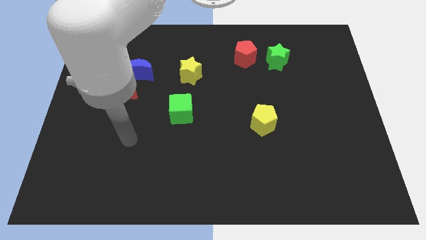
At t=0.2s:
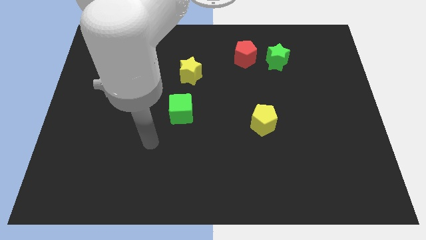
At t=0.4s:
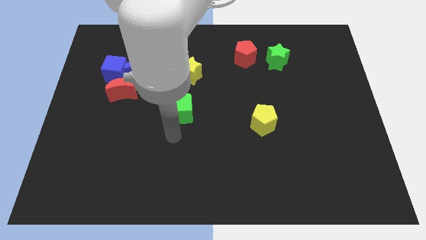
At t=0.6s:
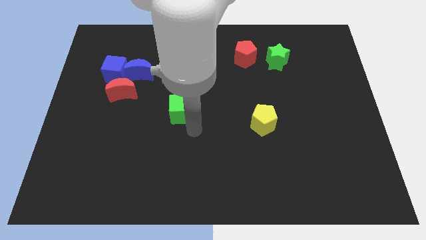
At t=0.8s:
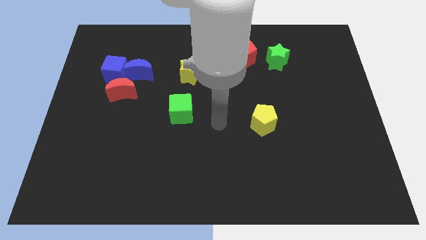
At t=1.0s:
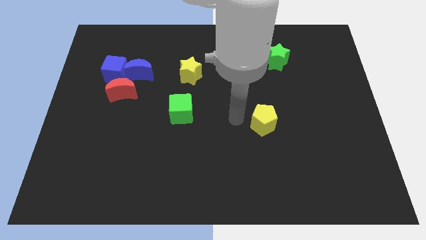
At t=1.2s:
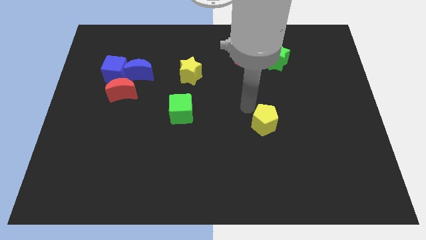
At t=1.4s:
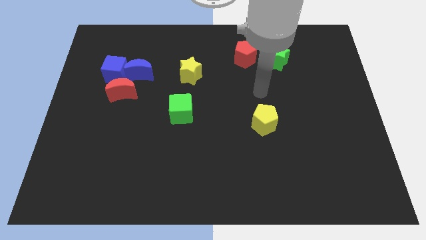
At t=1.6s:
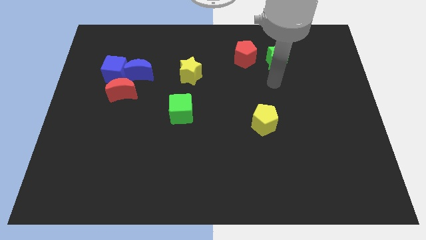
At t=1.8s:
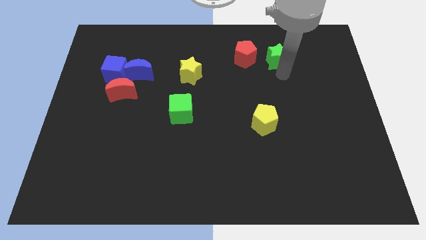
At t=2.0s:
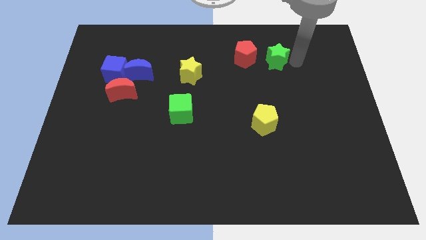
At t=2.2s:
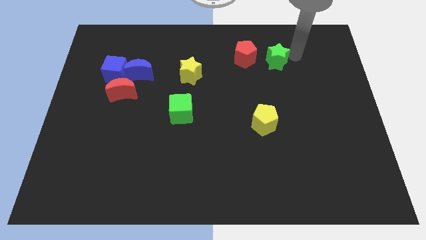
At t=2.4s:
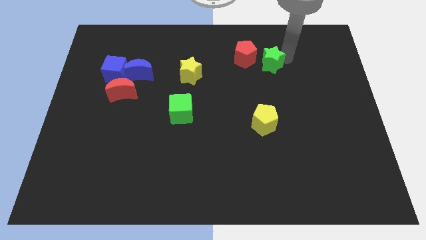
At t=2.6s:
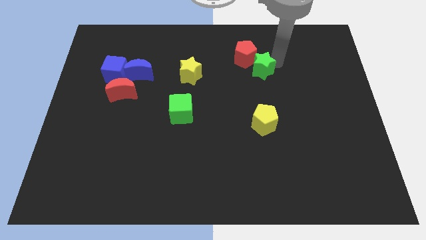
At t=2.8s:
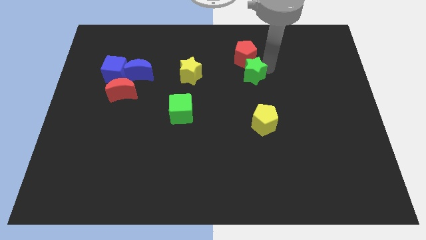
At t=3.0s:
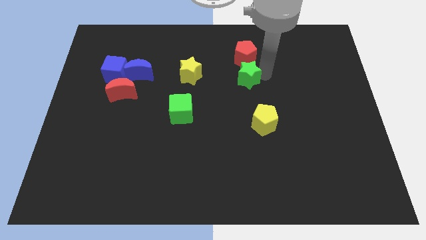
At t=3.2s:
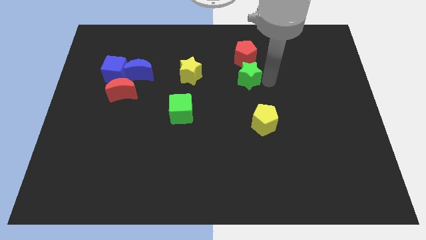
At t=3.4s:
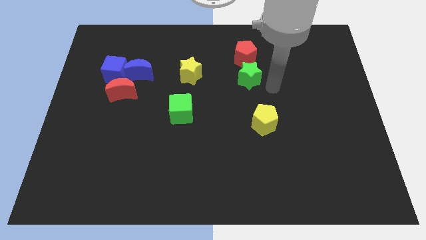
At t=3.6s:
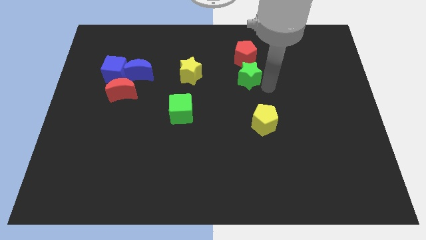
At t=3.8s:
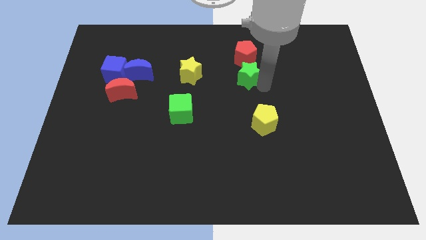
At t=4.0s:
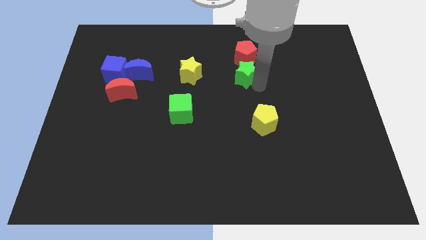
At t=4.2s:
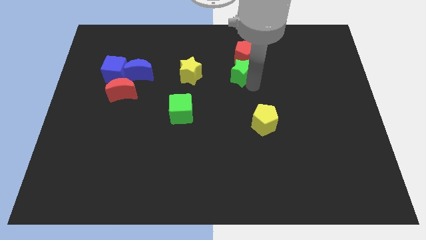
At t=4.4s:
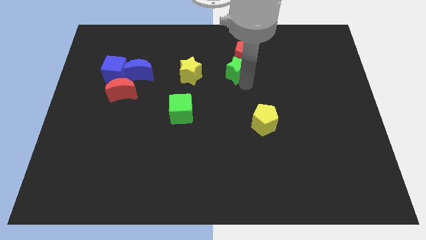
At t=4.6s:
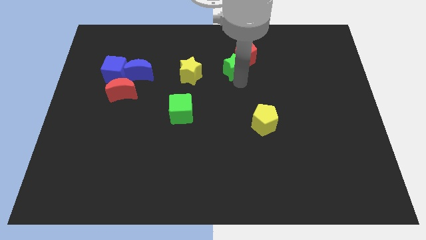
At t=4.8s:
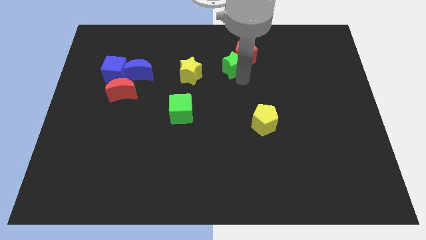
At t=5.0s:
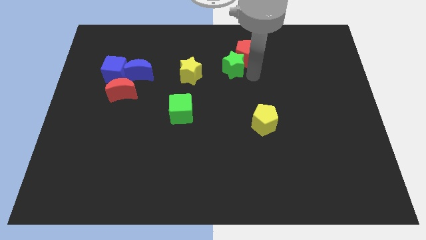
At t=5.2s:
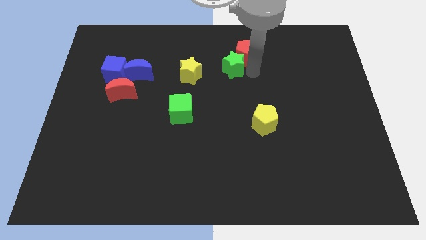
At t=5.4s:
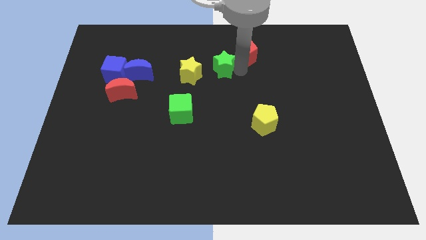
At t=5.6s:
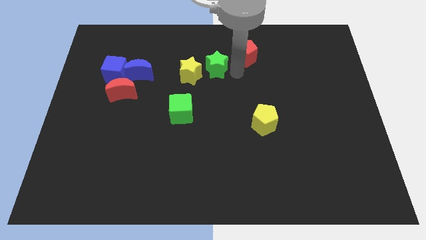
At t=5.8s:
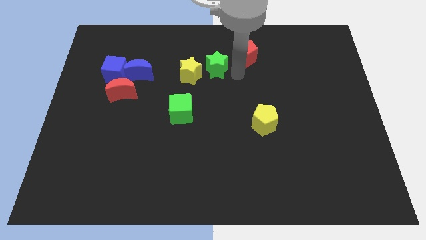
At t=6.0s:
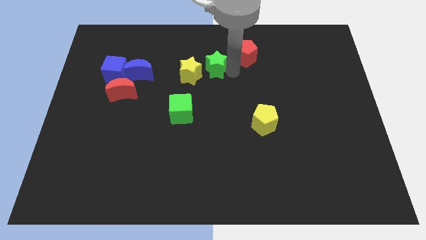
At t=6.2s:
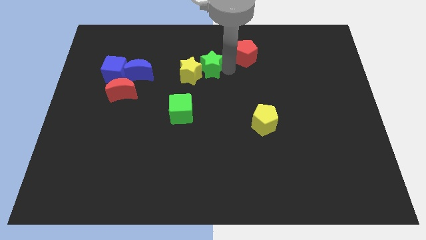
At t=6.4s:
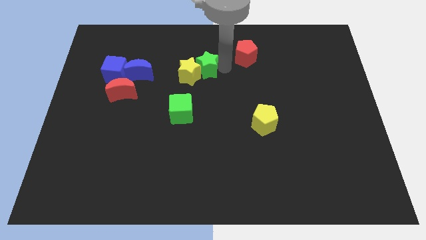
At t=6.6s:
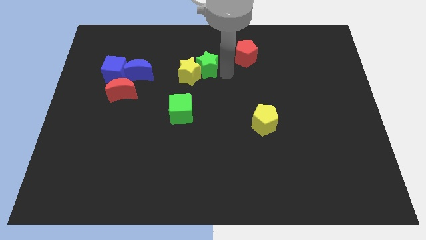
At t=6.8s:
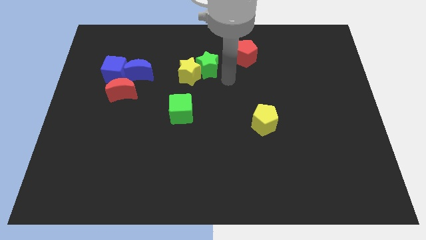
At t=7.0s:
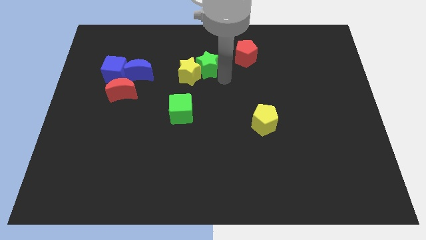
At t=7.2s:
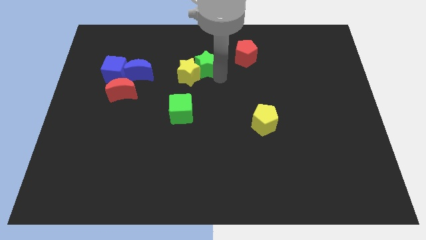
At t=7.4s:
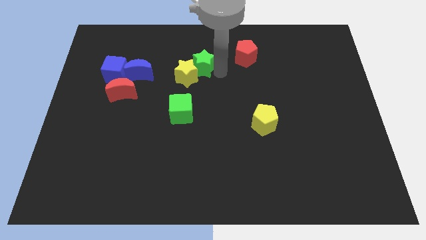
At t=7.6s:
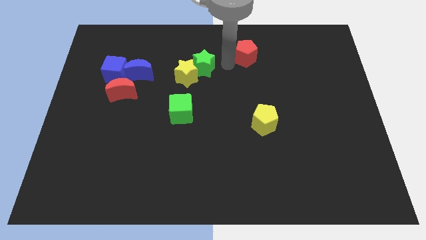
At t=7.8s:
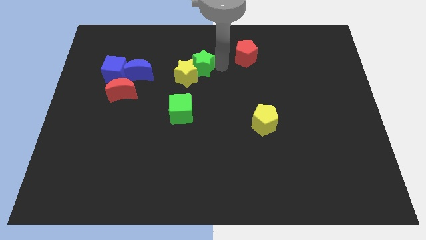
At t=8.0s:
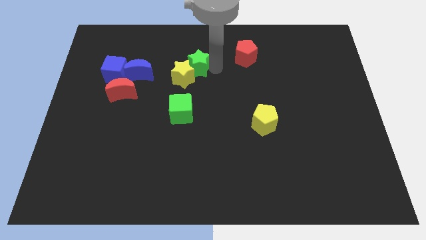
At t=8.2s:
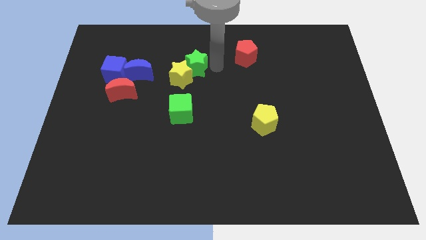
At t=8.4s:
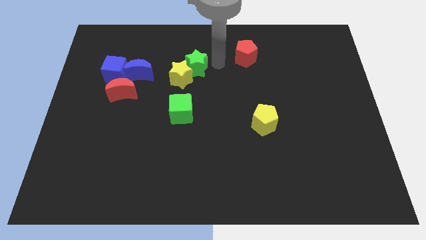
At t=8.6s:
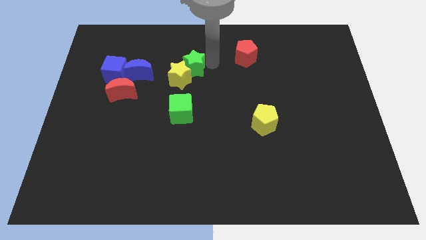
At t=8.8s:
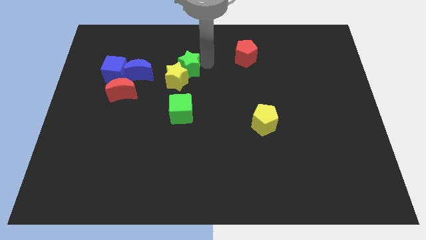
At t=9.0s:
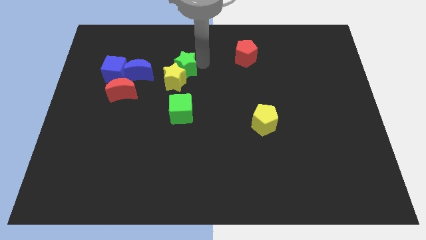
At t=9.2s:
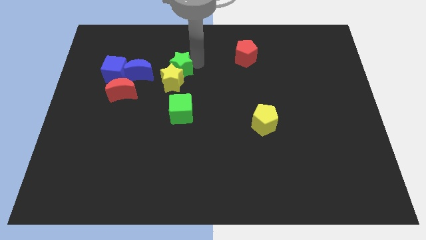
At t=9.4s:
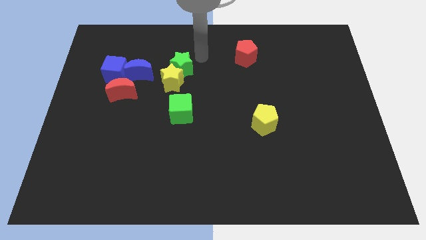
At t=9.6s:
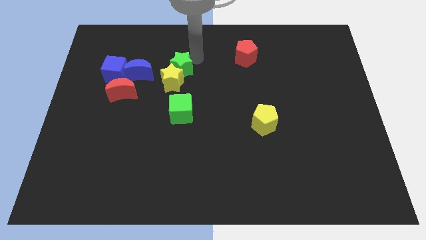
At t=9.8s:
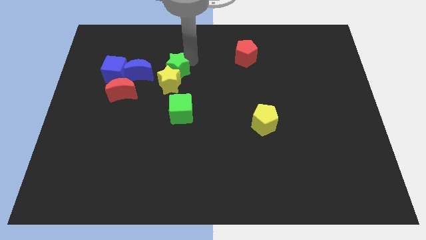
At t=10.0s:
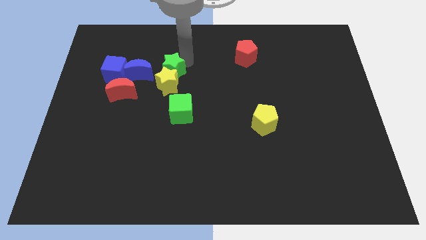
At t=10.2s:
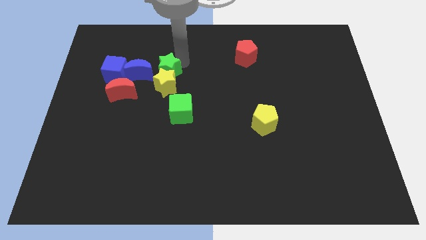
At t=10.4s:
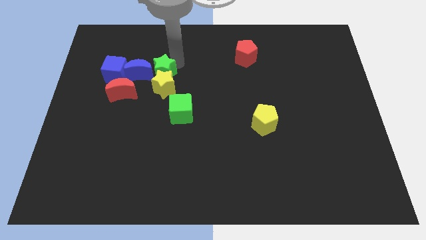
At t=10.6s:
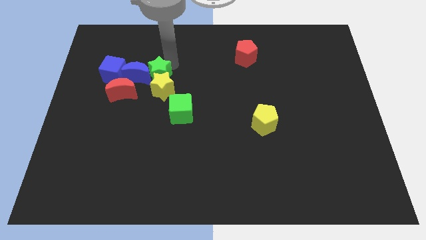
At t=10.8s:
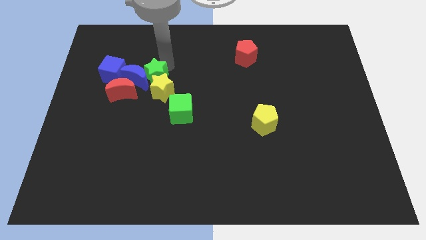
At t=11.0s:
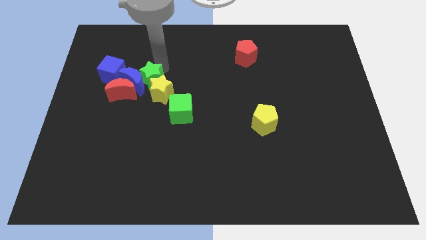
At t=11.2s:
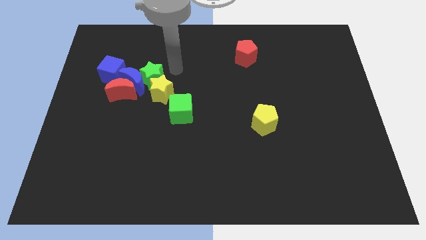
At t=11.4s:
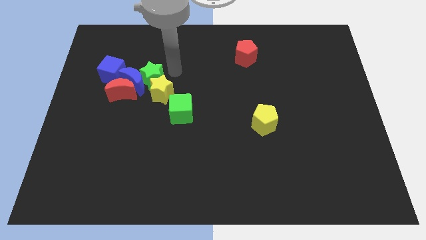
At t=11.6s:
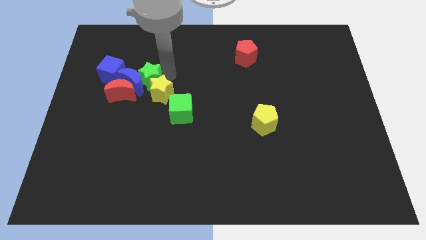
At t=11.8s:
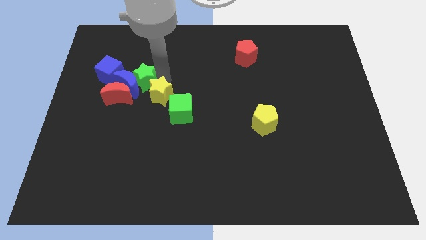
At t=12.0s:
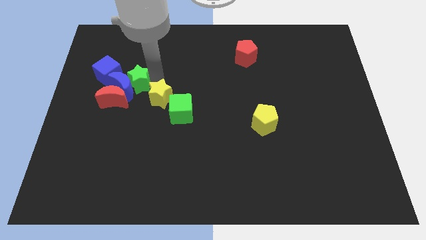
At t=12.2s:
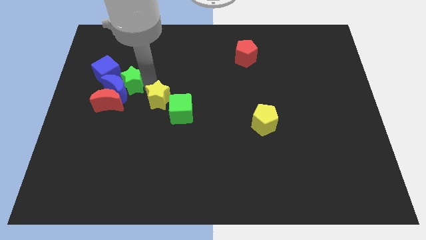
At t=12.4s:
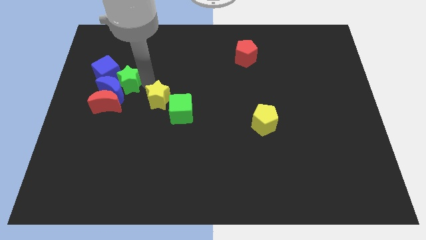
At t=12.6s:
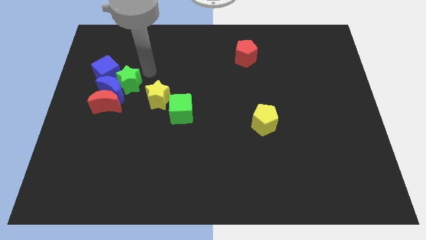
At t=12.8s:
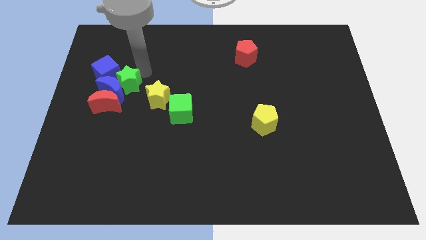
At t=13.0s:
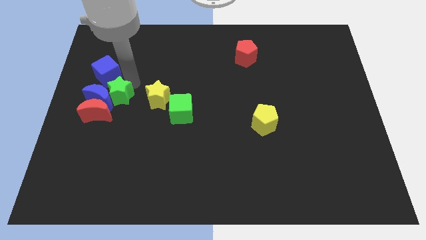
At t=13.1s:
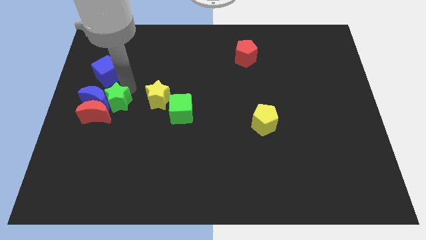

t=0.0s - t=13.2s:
push the green star to the red moon

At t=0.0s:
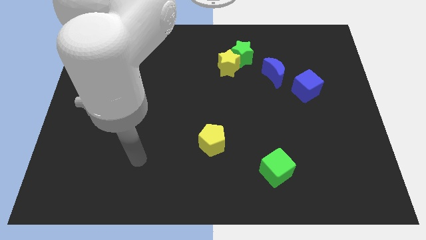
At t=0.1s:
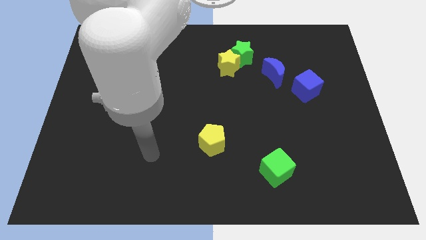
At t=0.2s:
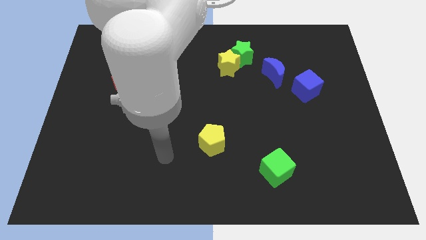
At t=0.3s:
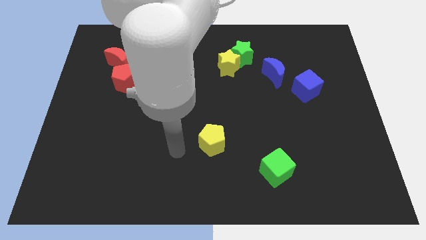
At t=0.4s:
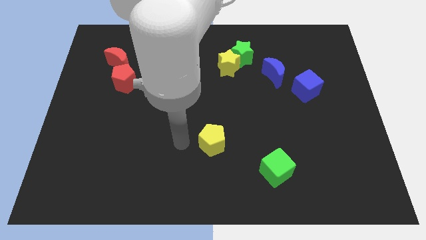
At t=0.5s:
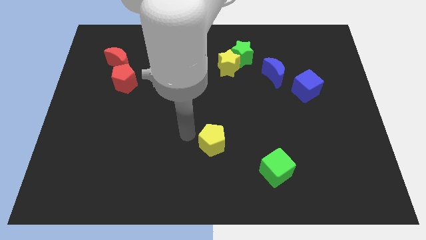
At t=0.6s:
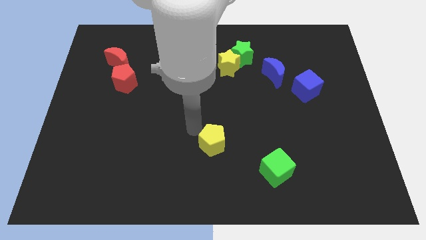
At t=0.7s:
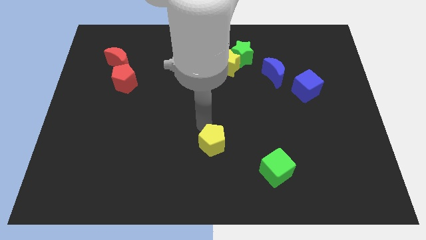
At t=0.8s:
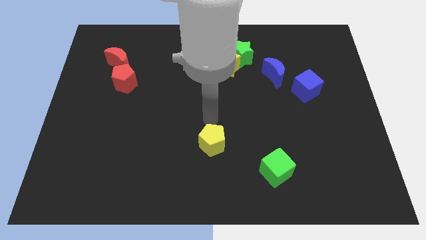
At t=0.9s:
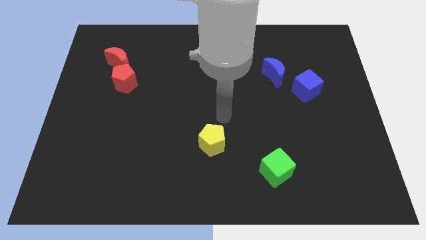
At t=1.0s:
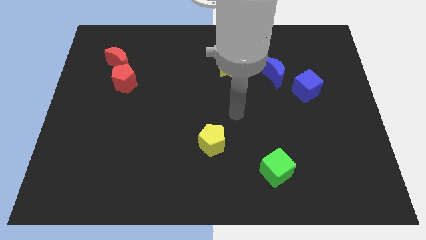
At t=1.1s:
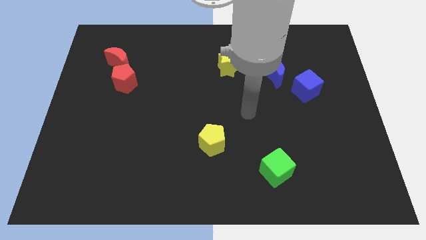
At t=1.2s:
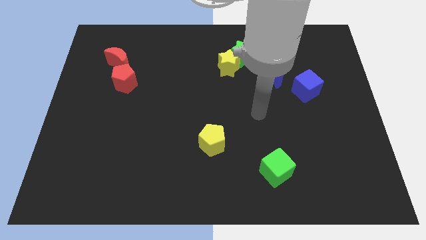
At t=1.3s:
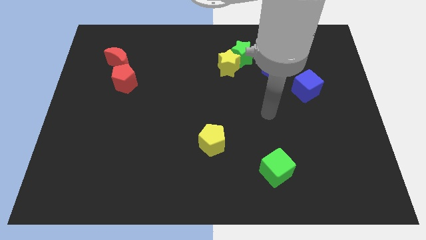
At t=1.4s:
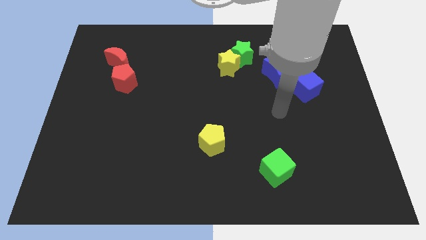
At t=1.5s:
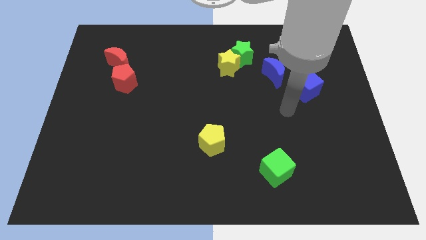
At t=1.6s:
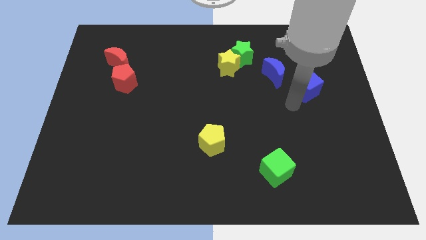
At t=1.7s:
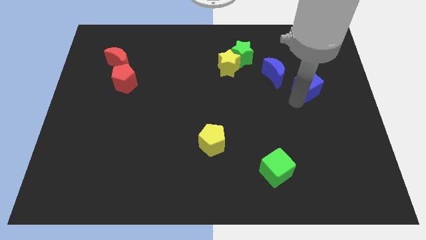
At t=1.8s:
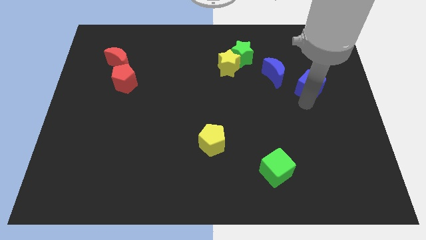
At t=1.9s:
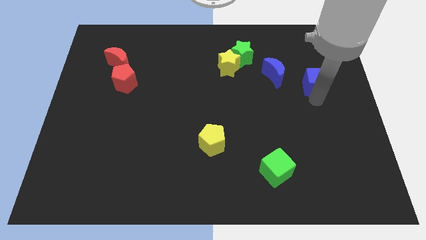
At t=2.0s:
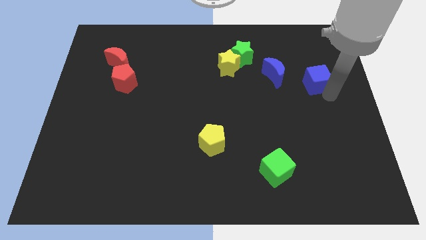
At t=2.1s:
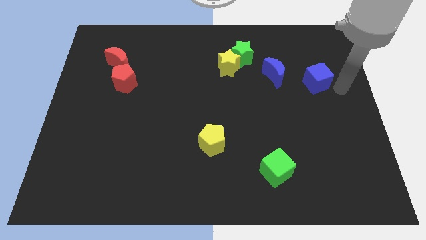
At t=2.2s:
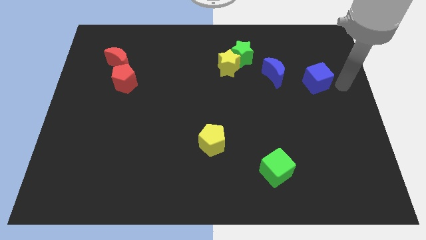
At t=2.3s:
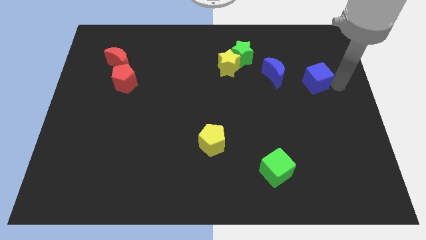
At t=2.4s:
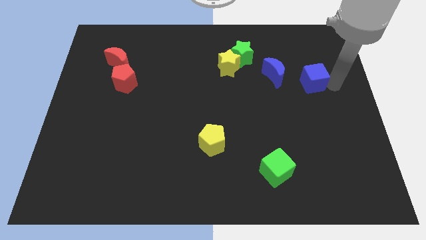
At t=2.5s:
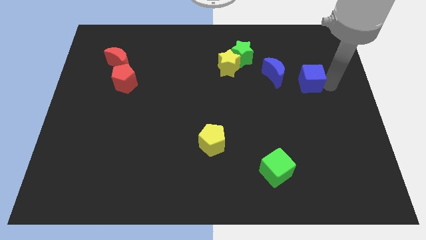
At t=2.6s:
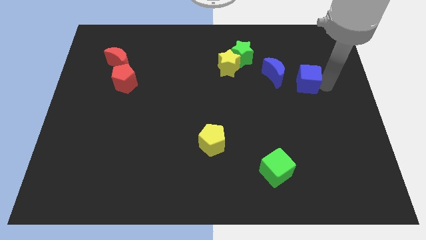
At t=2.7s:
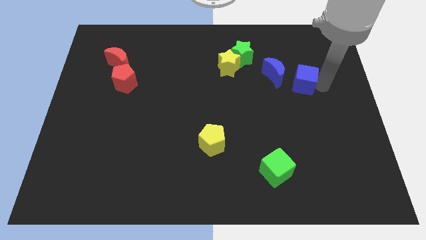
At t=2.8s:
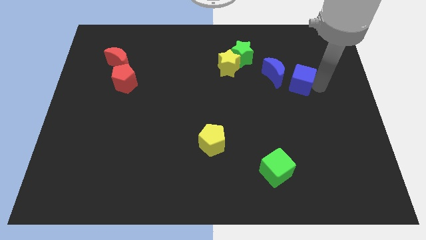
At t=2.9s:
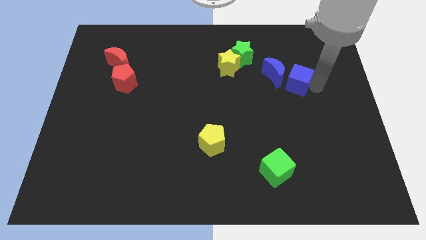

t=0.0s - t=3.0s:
move the blue cube to the blue moon
